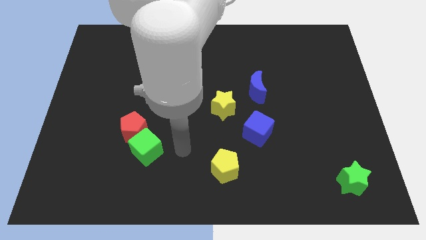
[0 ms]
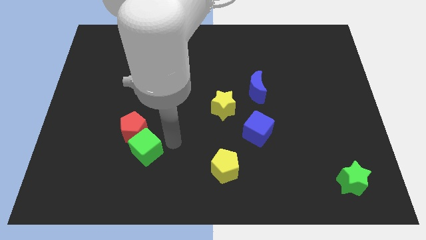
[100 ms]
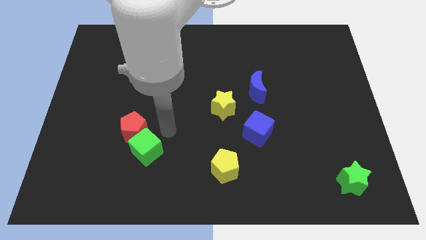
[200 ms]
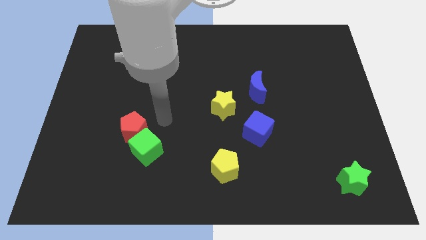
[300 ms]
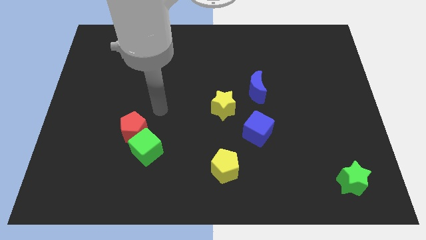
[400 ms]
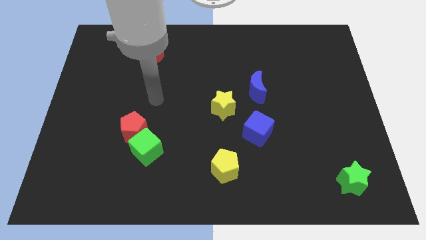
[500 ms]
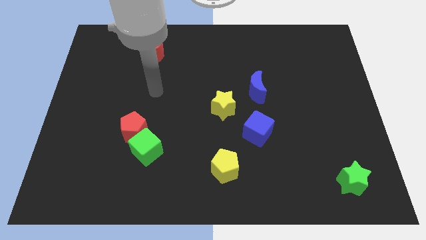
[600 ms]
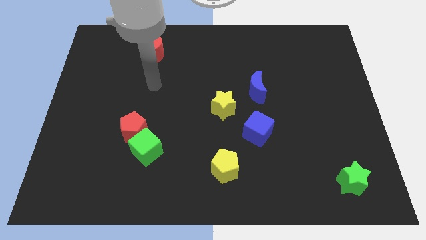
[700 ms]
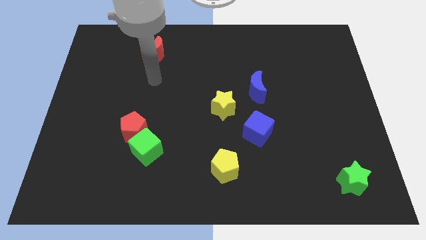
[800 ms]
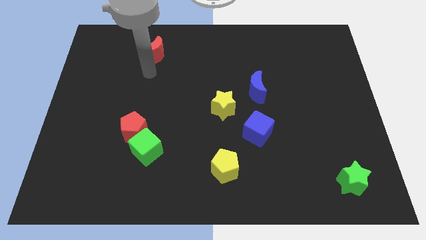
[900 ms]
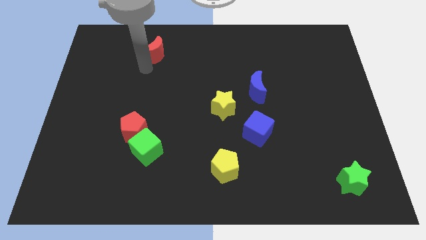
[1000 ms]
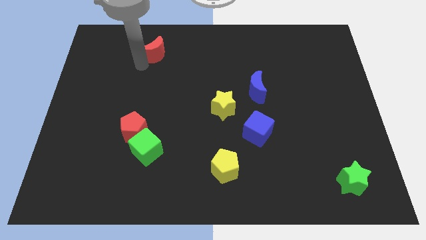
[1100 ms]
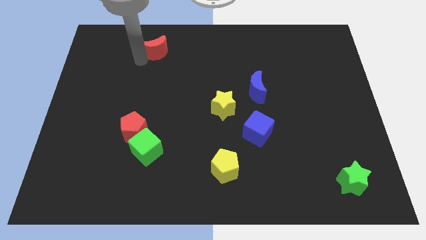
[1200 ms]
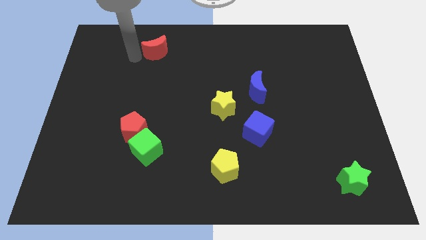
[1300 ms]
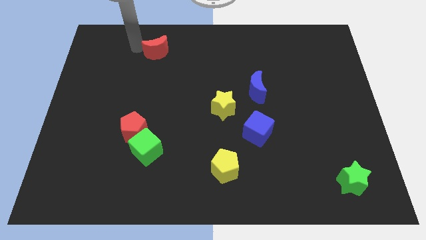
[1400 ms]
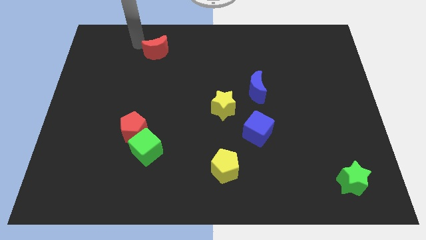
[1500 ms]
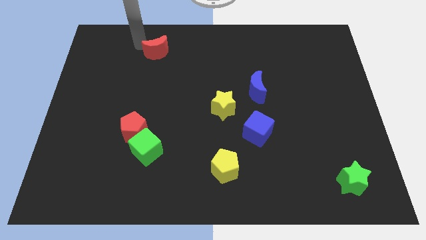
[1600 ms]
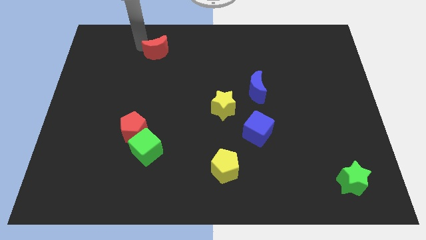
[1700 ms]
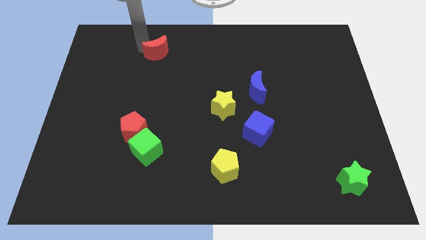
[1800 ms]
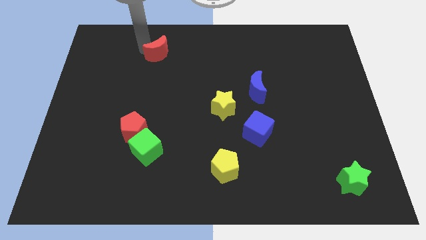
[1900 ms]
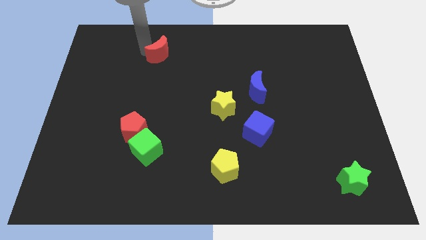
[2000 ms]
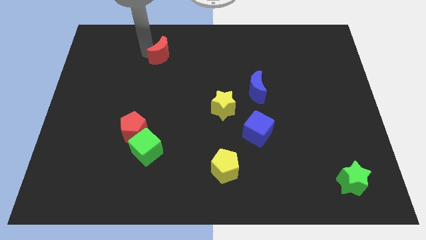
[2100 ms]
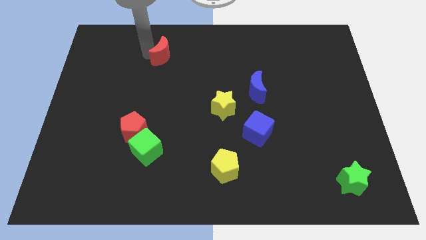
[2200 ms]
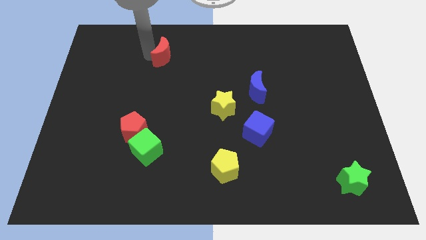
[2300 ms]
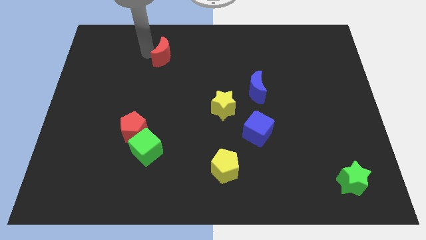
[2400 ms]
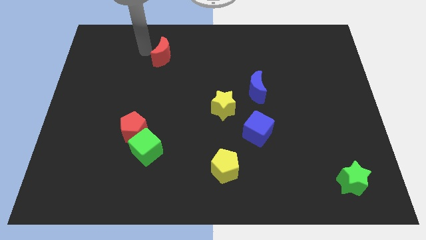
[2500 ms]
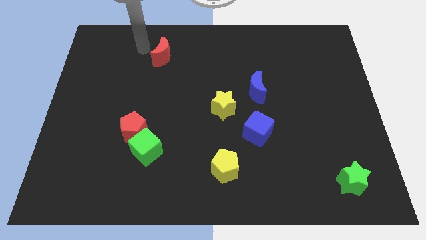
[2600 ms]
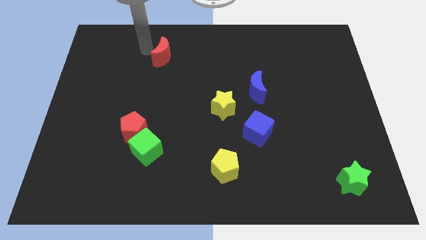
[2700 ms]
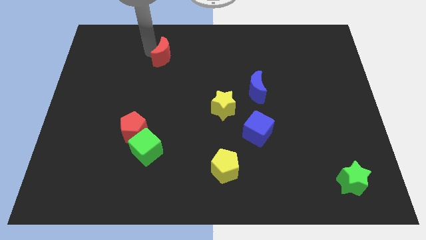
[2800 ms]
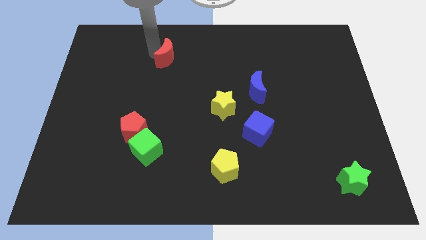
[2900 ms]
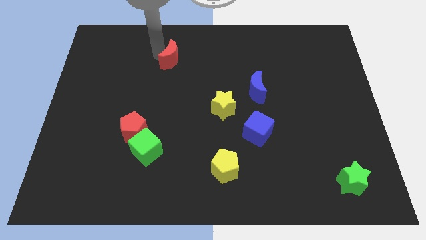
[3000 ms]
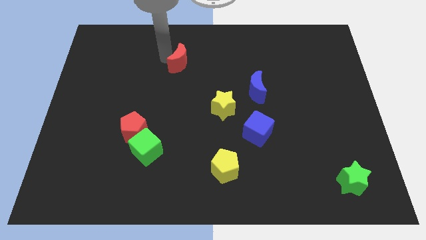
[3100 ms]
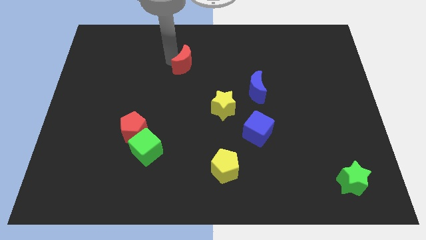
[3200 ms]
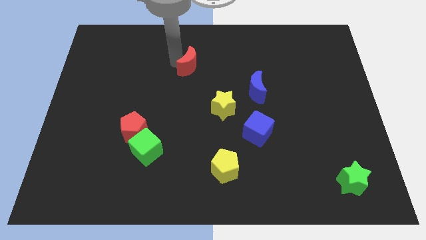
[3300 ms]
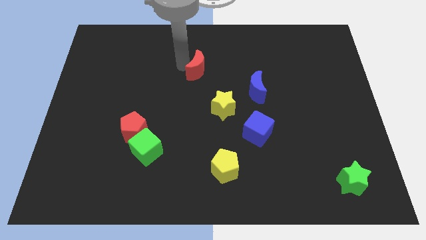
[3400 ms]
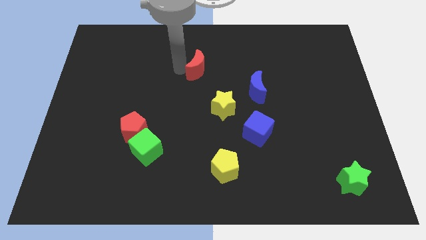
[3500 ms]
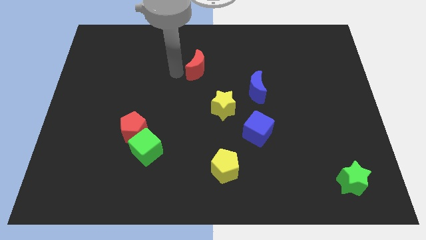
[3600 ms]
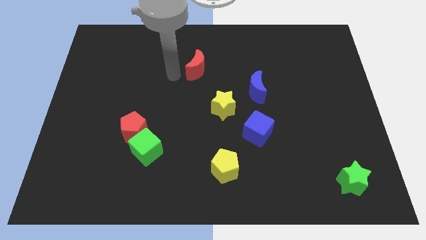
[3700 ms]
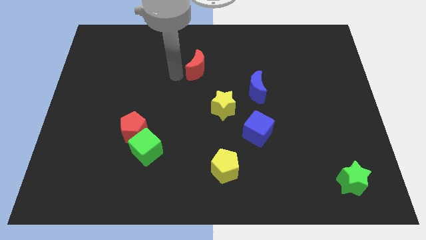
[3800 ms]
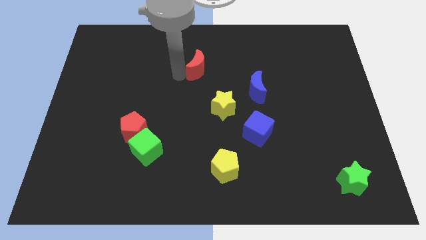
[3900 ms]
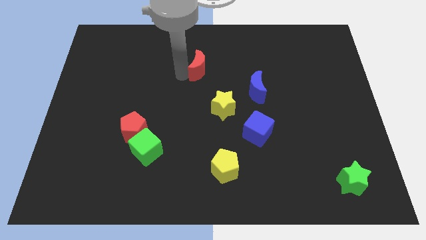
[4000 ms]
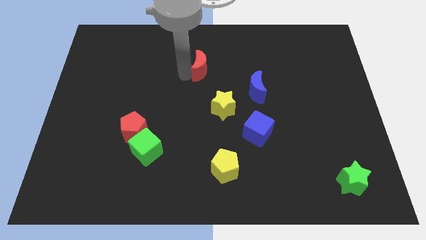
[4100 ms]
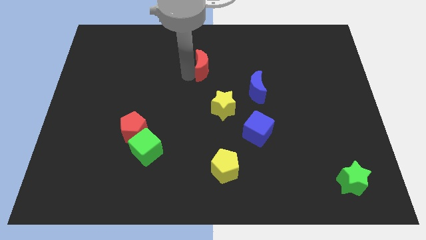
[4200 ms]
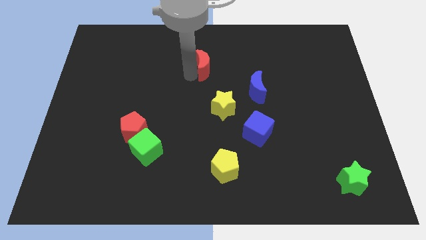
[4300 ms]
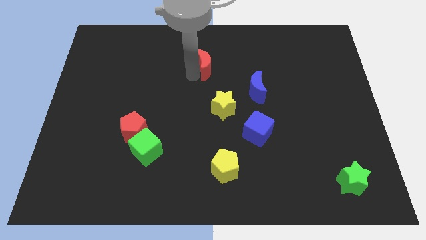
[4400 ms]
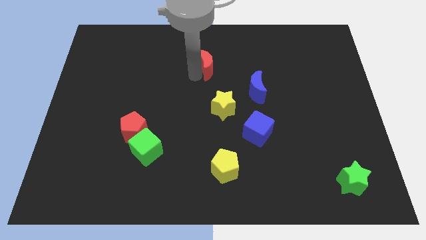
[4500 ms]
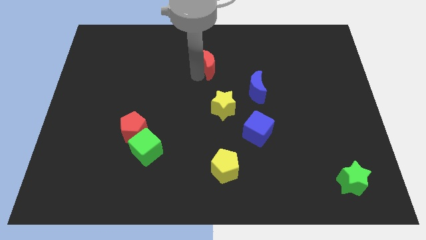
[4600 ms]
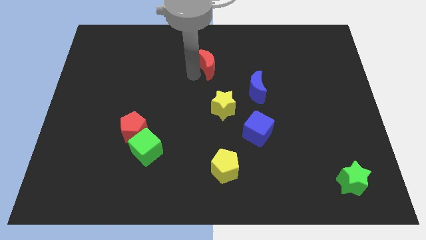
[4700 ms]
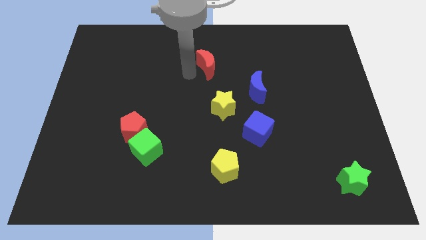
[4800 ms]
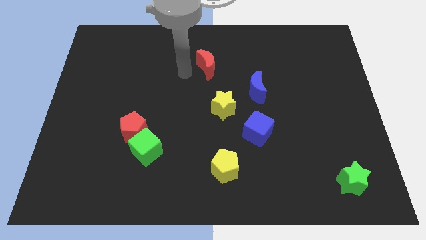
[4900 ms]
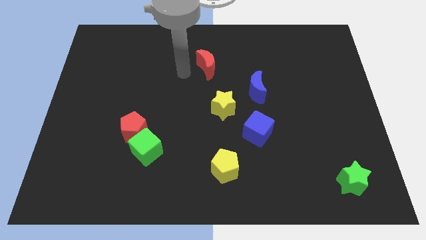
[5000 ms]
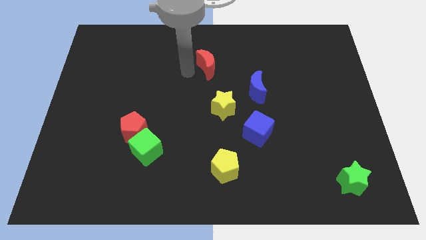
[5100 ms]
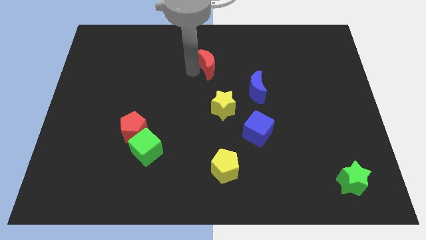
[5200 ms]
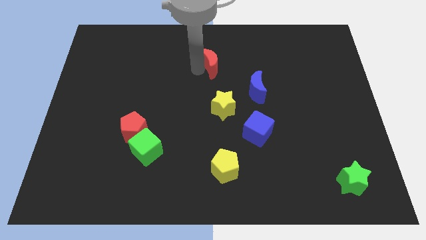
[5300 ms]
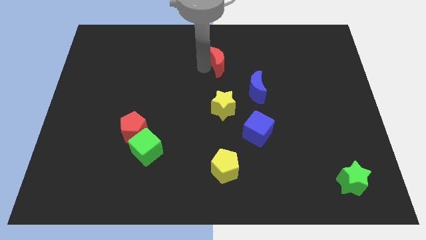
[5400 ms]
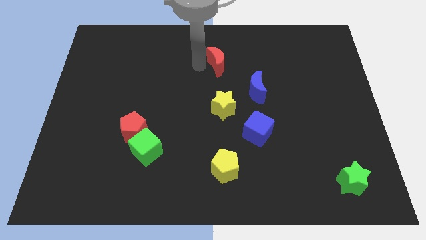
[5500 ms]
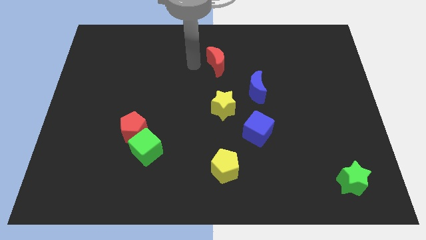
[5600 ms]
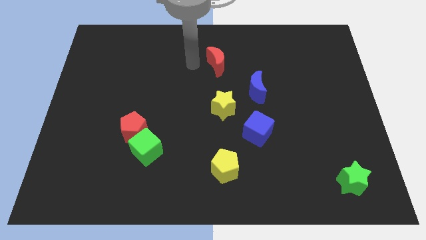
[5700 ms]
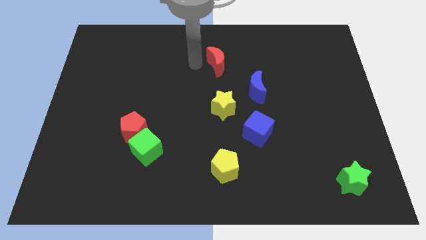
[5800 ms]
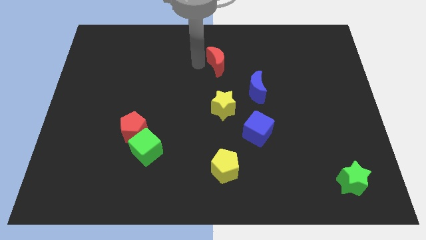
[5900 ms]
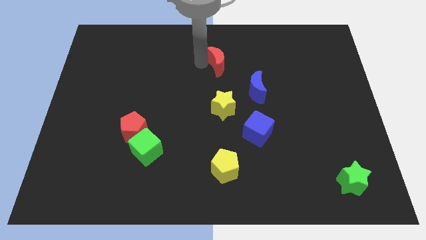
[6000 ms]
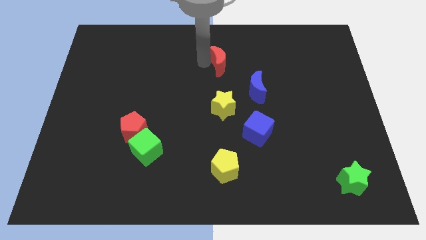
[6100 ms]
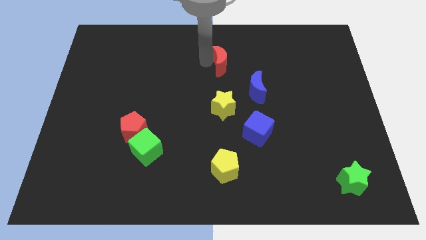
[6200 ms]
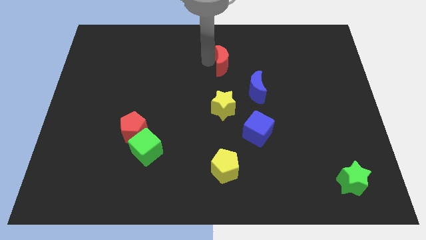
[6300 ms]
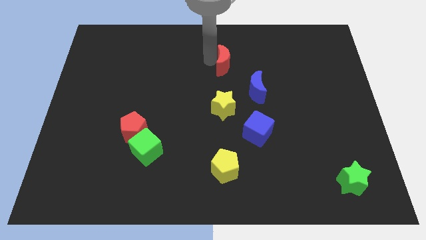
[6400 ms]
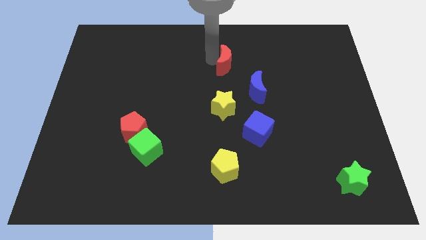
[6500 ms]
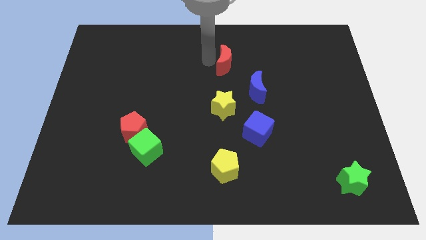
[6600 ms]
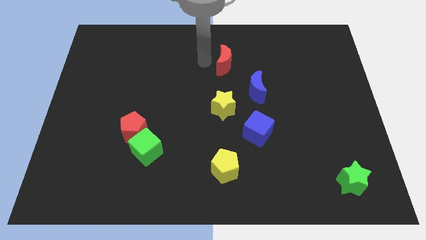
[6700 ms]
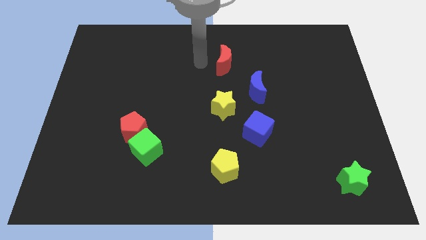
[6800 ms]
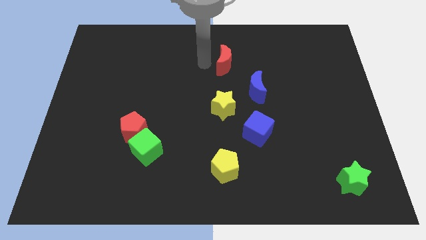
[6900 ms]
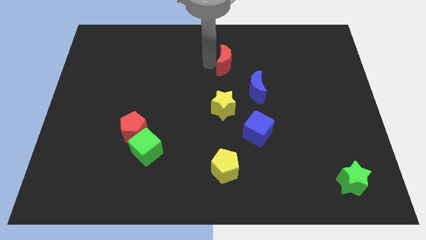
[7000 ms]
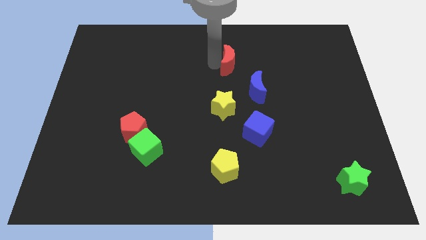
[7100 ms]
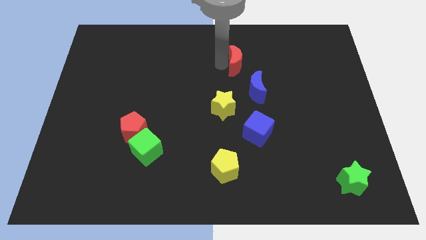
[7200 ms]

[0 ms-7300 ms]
slide the red moon to the right

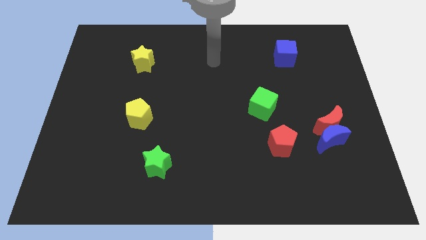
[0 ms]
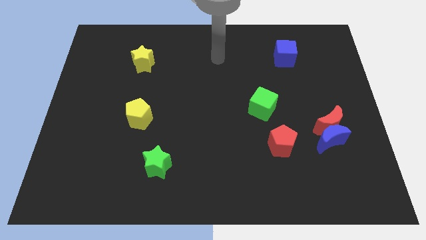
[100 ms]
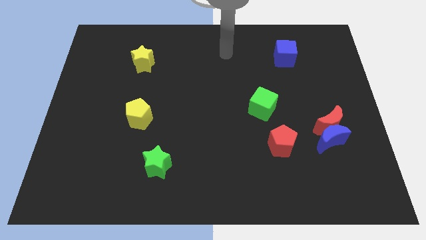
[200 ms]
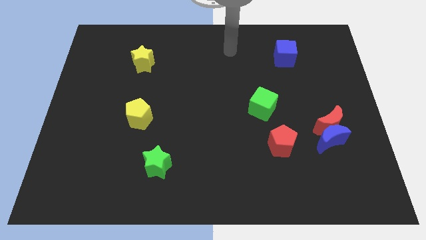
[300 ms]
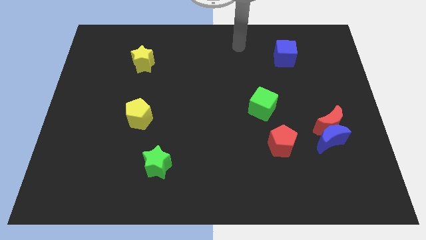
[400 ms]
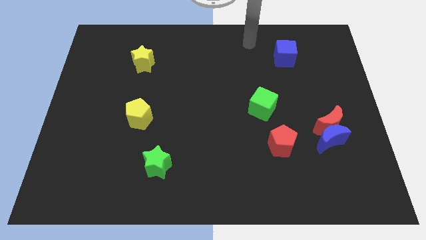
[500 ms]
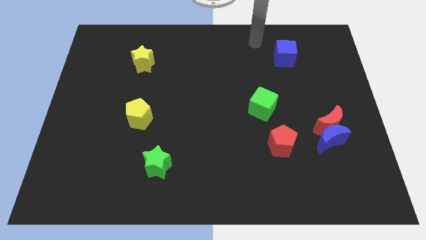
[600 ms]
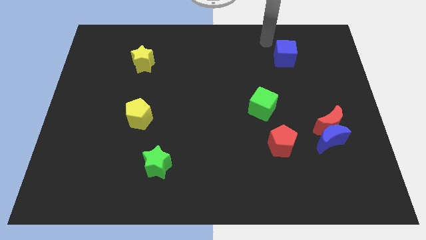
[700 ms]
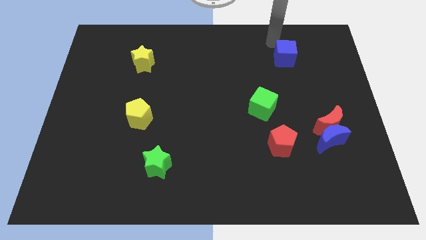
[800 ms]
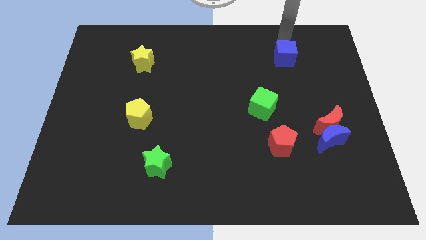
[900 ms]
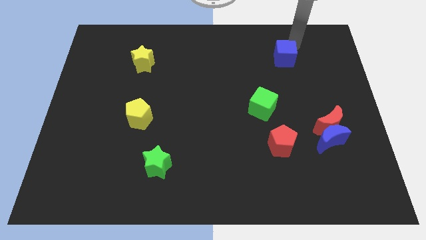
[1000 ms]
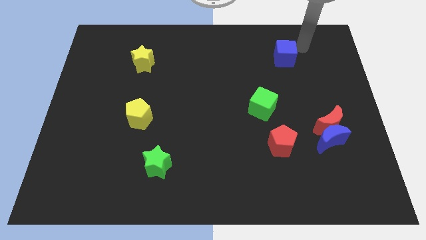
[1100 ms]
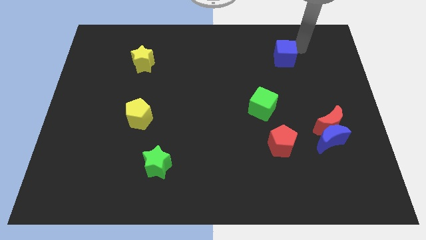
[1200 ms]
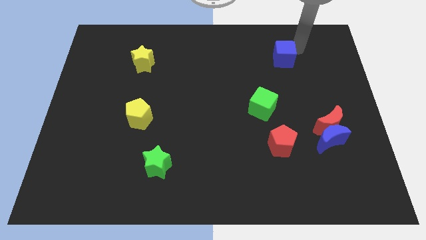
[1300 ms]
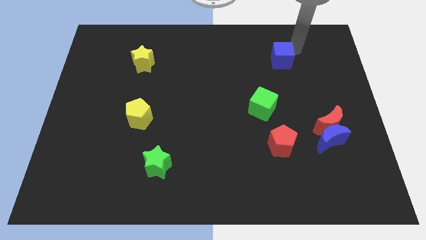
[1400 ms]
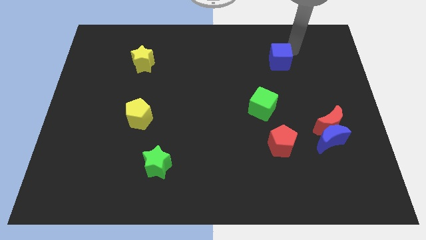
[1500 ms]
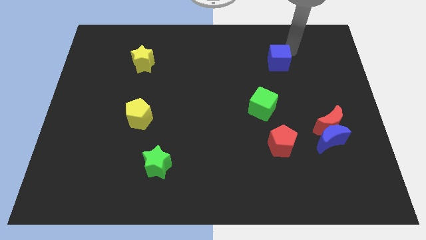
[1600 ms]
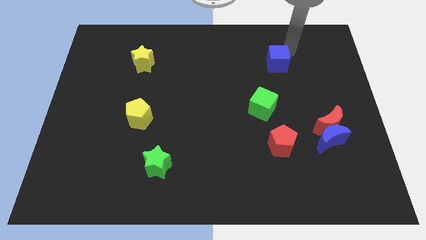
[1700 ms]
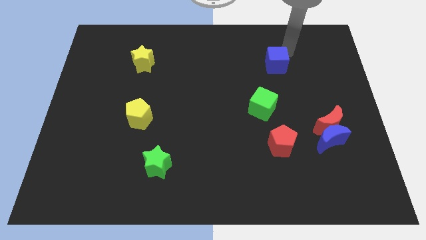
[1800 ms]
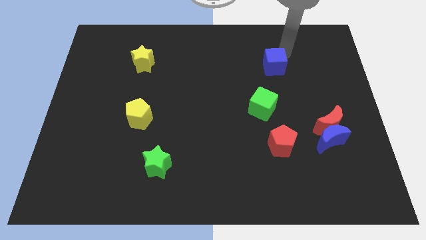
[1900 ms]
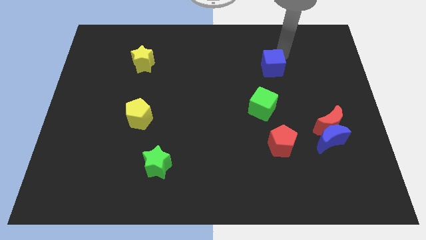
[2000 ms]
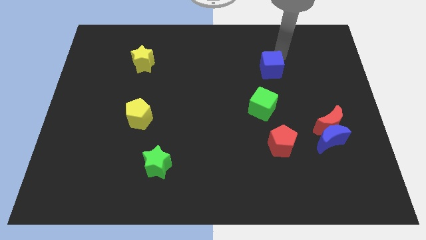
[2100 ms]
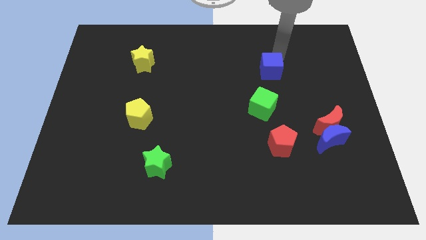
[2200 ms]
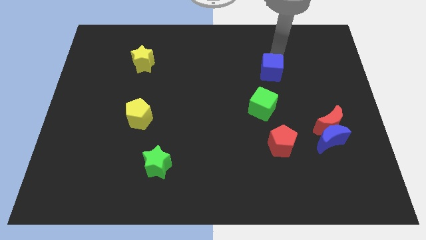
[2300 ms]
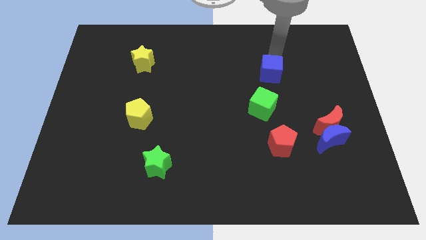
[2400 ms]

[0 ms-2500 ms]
slide the blue cube a little downwards and left diagonally
